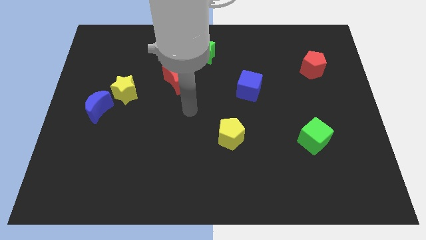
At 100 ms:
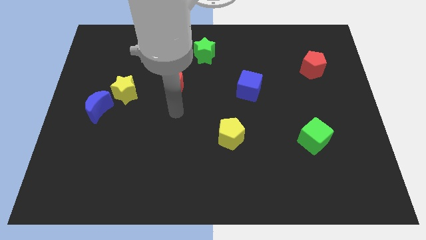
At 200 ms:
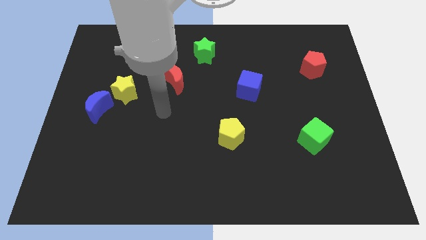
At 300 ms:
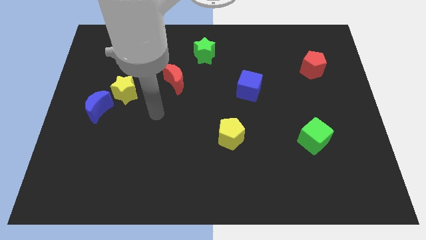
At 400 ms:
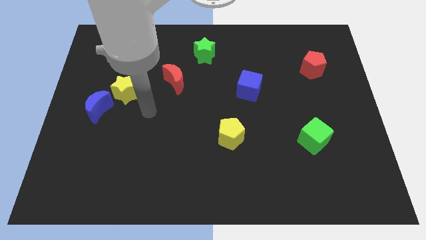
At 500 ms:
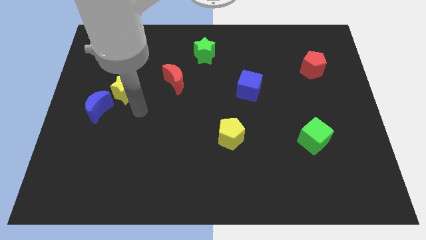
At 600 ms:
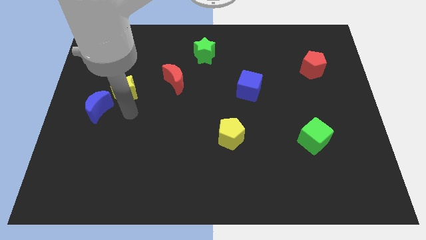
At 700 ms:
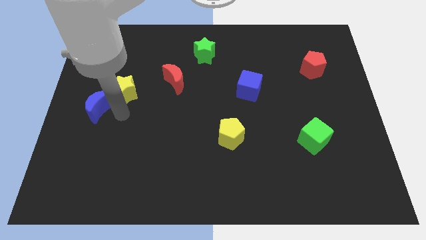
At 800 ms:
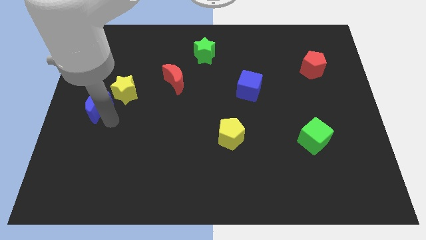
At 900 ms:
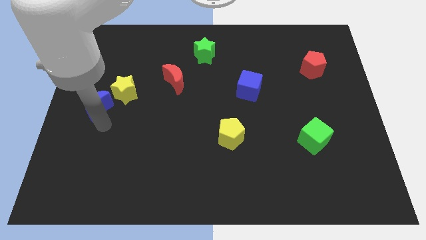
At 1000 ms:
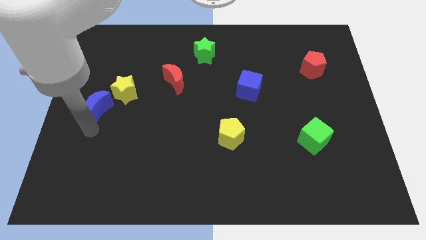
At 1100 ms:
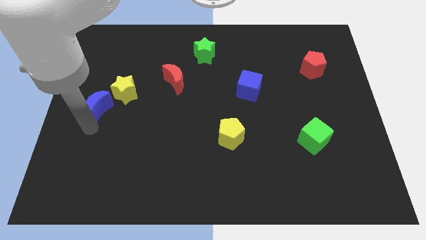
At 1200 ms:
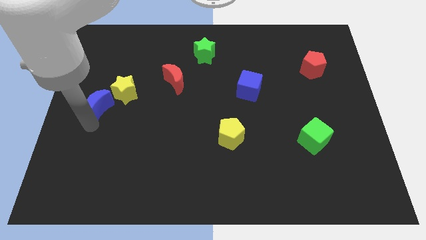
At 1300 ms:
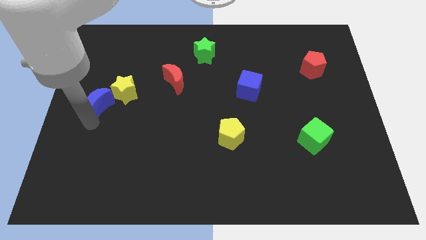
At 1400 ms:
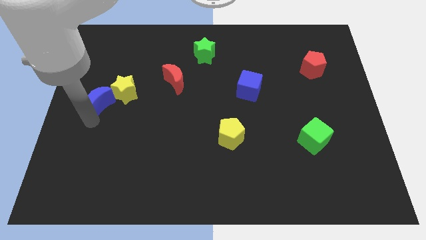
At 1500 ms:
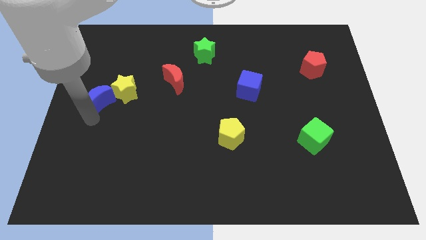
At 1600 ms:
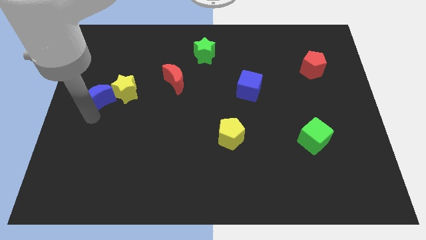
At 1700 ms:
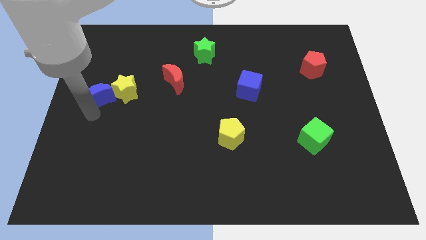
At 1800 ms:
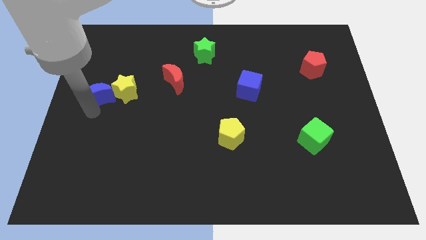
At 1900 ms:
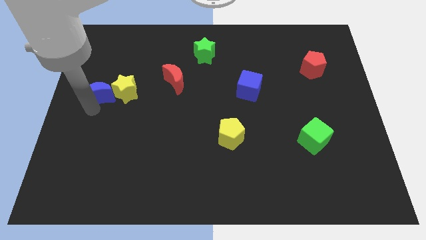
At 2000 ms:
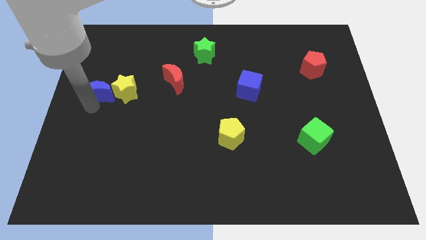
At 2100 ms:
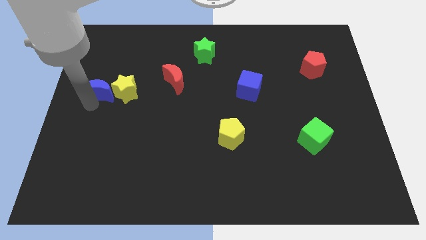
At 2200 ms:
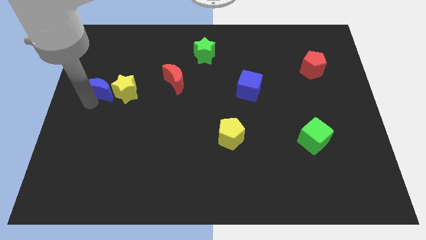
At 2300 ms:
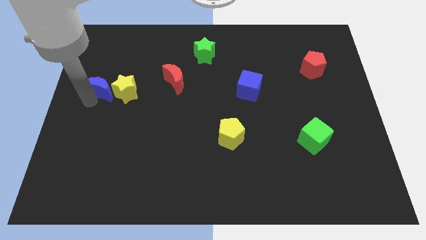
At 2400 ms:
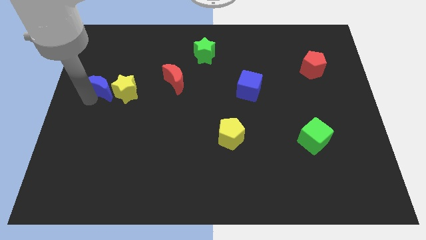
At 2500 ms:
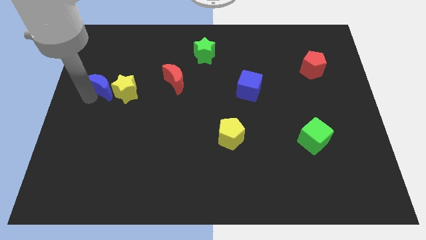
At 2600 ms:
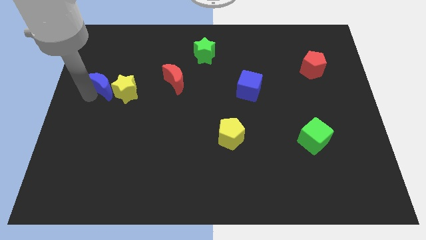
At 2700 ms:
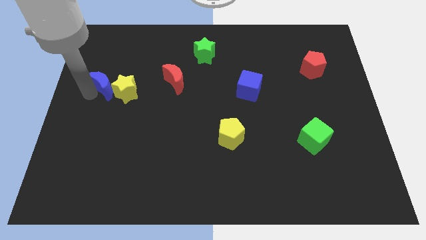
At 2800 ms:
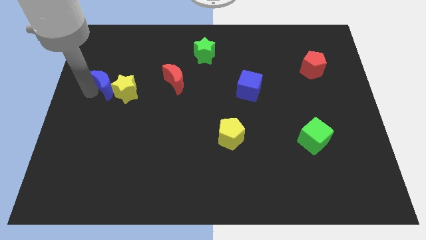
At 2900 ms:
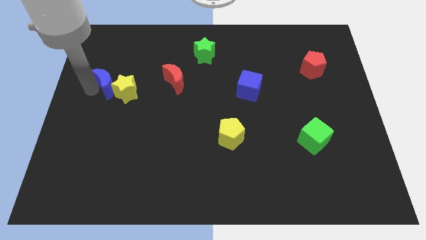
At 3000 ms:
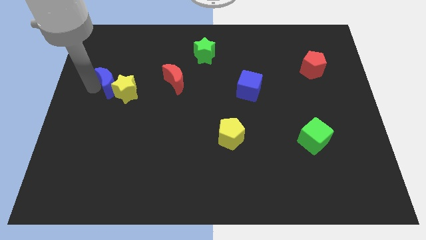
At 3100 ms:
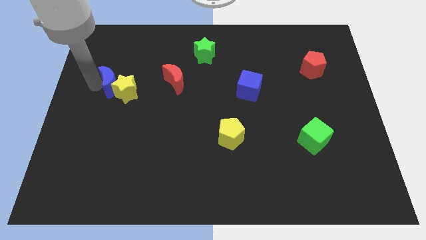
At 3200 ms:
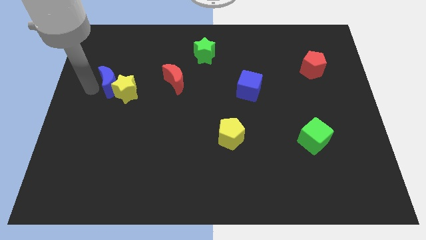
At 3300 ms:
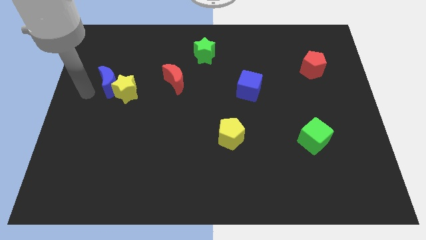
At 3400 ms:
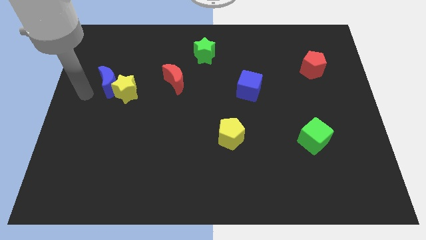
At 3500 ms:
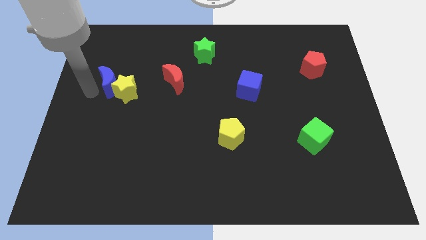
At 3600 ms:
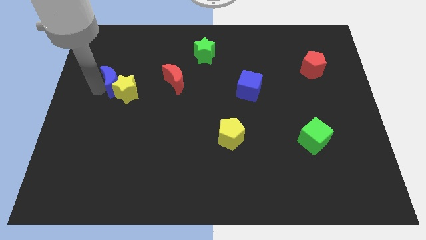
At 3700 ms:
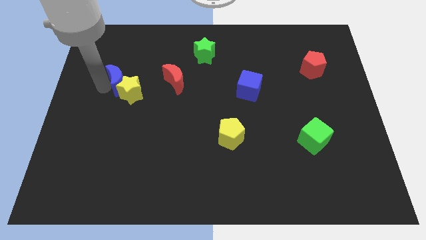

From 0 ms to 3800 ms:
slide the blue moon upwards and right a little

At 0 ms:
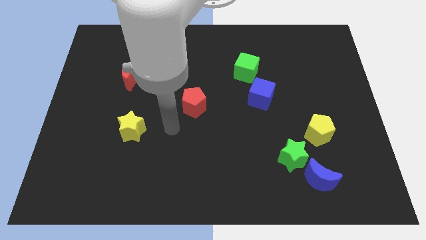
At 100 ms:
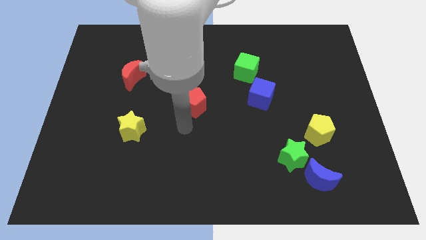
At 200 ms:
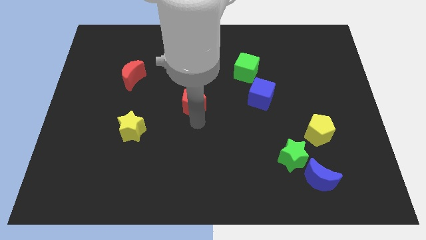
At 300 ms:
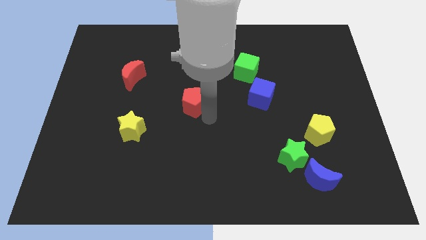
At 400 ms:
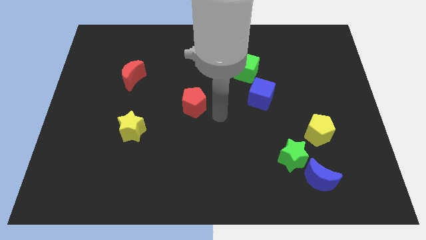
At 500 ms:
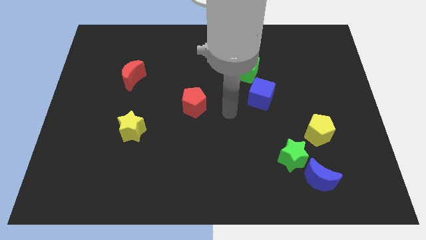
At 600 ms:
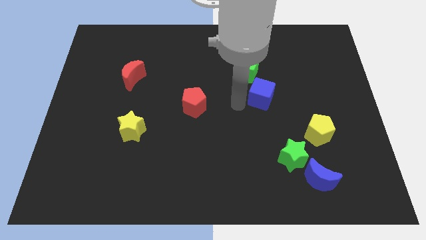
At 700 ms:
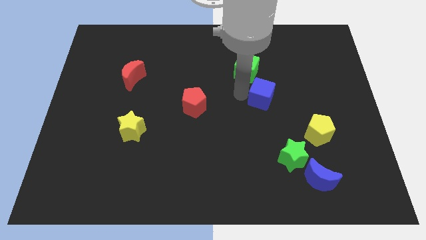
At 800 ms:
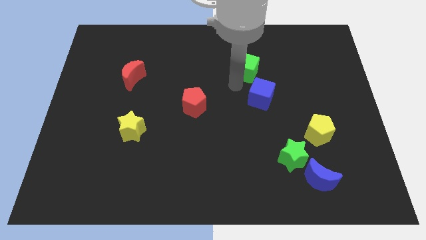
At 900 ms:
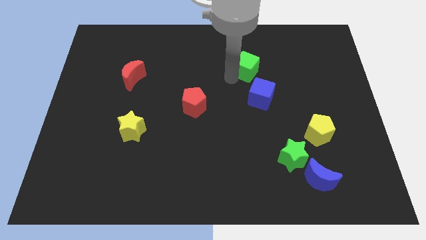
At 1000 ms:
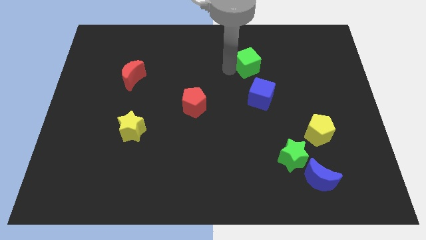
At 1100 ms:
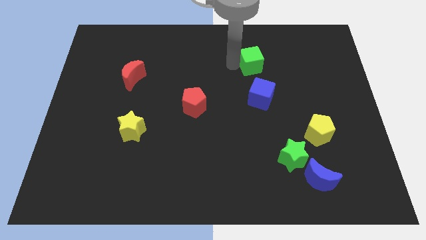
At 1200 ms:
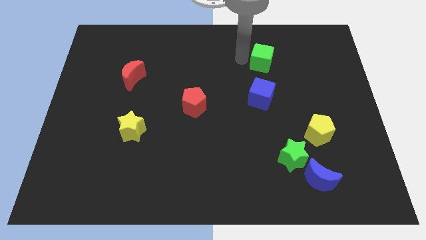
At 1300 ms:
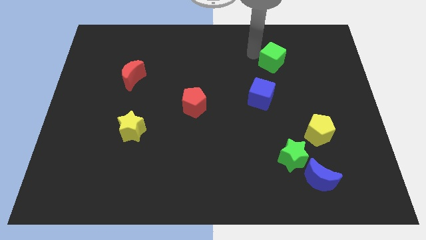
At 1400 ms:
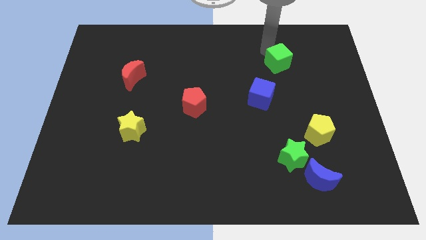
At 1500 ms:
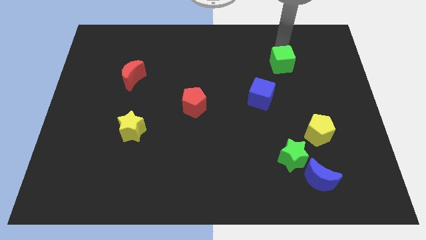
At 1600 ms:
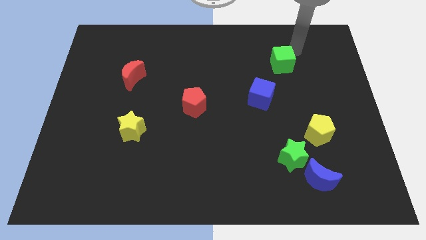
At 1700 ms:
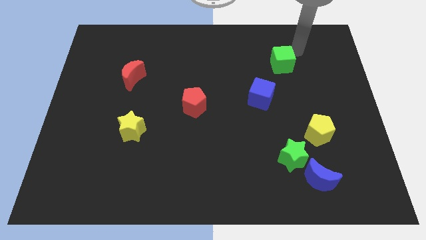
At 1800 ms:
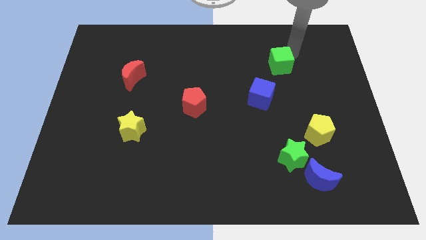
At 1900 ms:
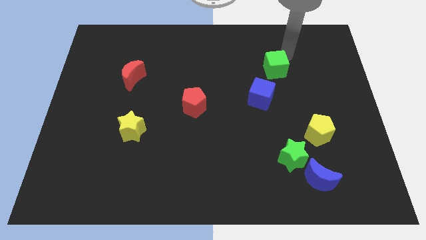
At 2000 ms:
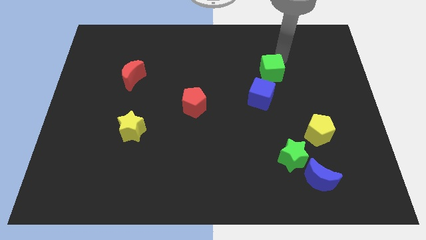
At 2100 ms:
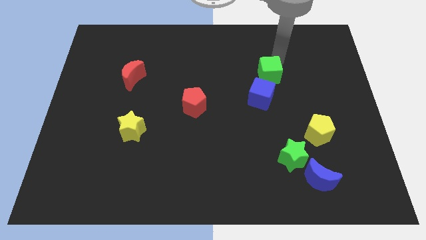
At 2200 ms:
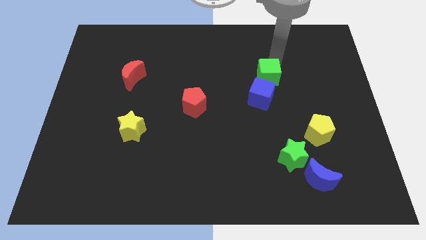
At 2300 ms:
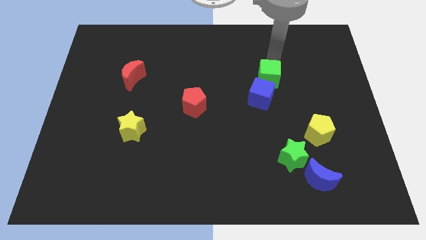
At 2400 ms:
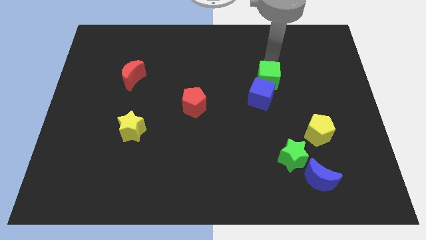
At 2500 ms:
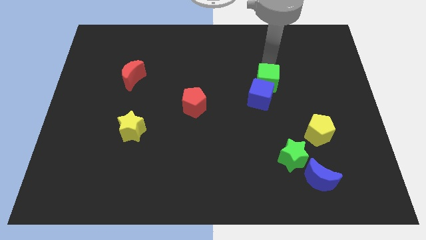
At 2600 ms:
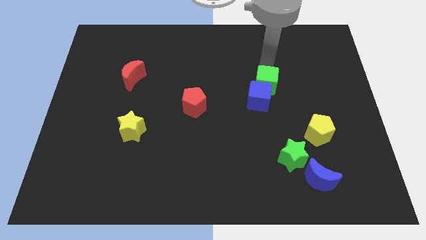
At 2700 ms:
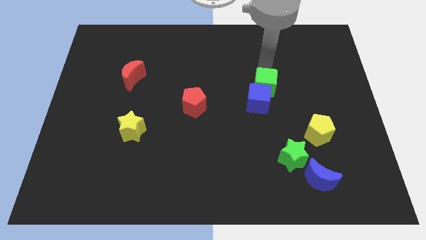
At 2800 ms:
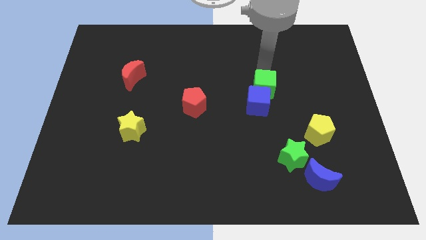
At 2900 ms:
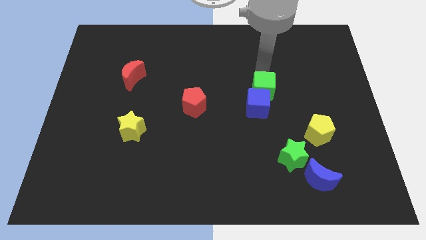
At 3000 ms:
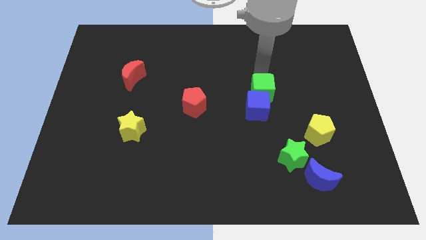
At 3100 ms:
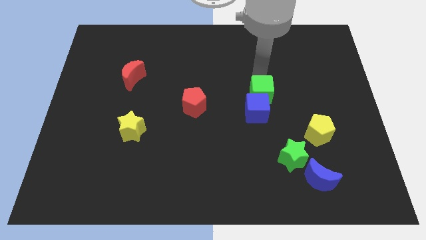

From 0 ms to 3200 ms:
slightly slide the green cube downwards

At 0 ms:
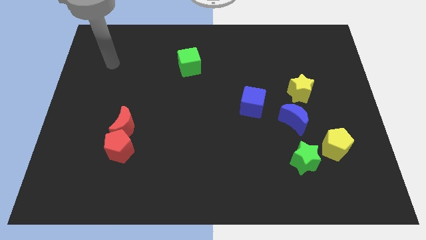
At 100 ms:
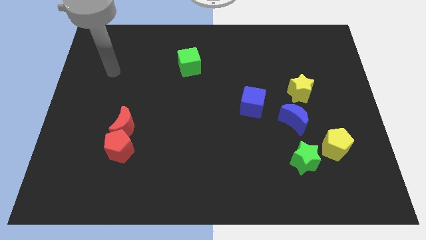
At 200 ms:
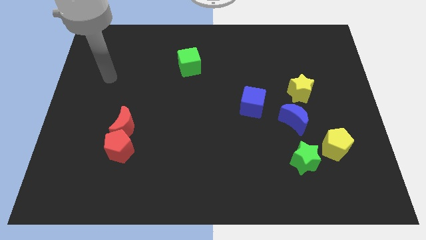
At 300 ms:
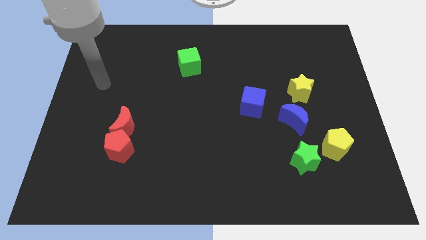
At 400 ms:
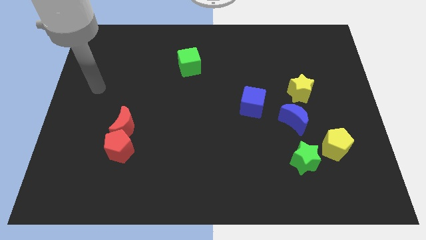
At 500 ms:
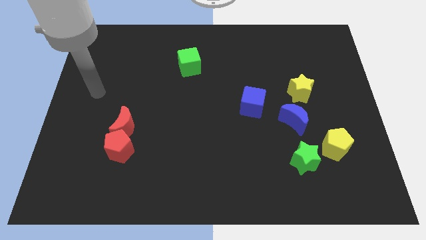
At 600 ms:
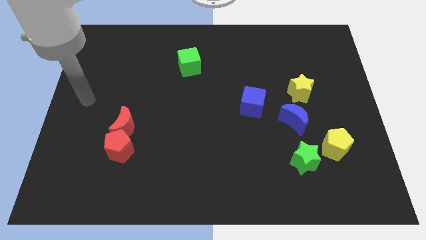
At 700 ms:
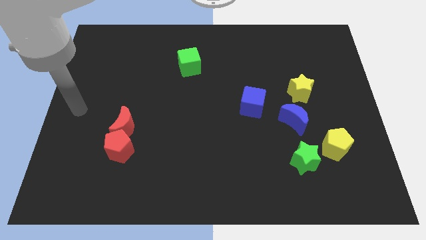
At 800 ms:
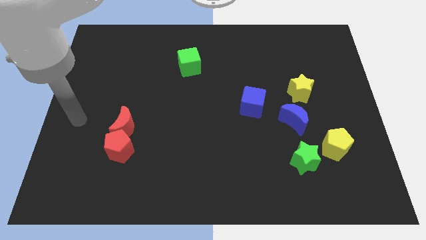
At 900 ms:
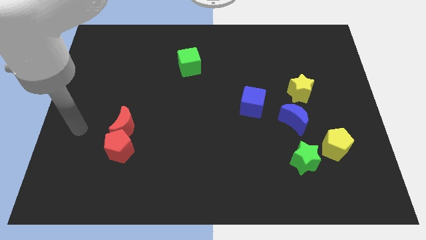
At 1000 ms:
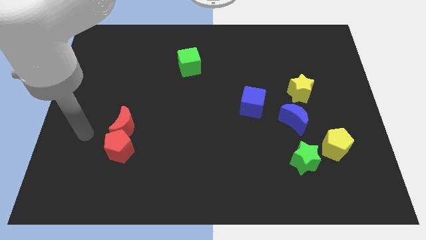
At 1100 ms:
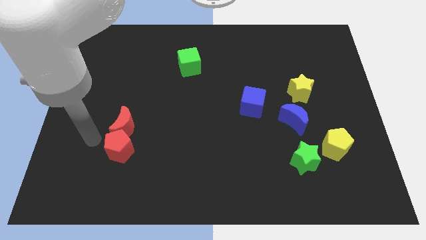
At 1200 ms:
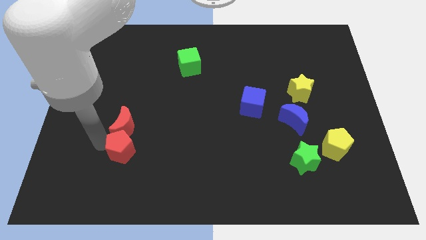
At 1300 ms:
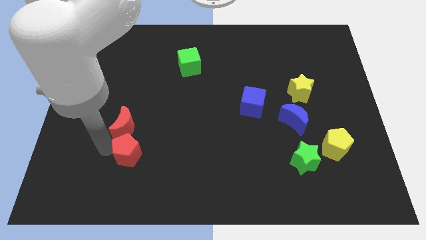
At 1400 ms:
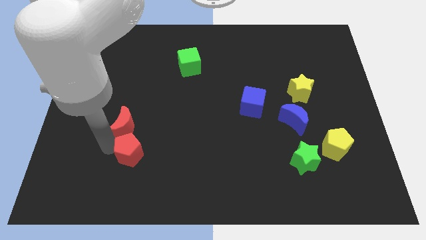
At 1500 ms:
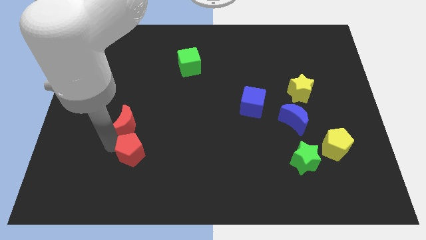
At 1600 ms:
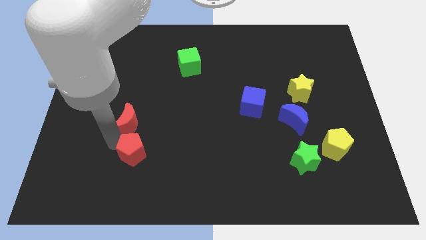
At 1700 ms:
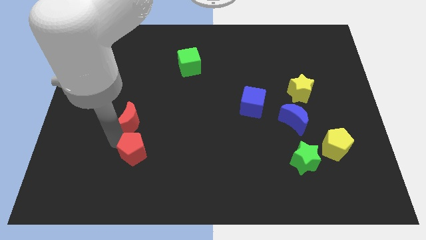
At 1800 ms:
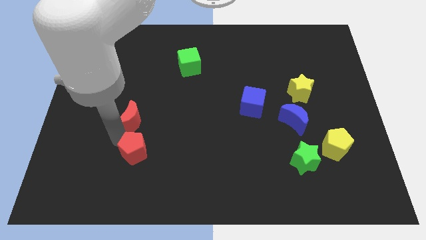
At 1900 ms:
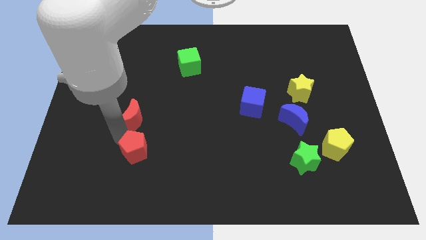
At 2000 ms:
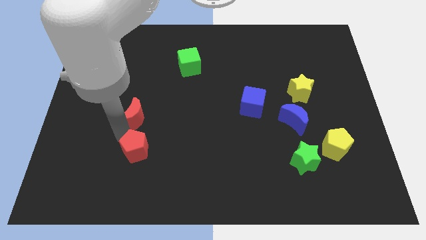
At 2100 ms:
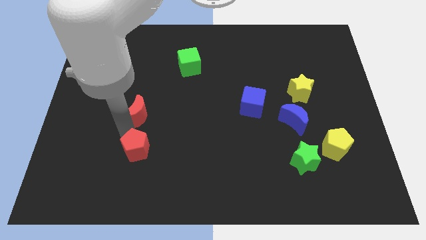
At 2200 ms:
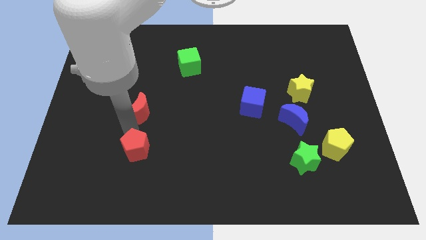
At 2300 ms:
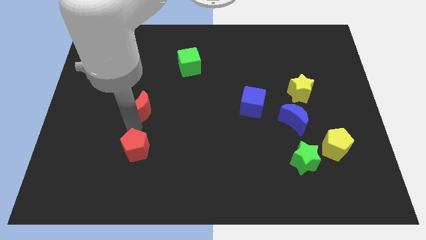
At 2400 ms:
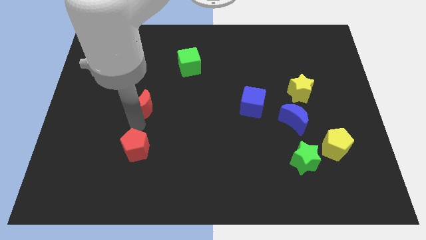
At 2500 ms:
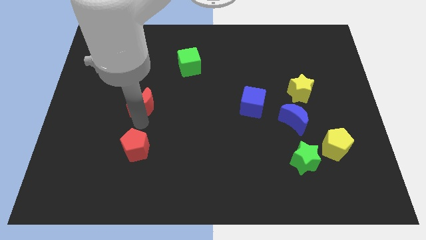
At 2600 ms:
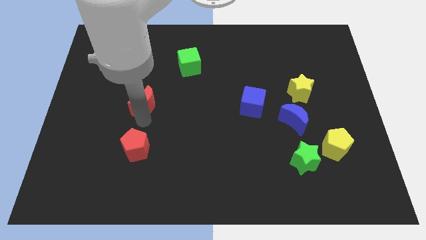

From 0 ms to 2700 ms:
slightly slide the red moon up and to the right diagonally
